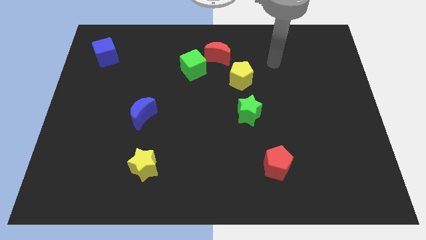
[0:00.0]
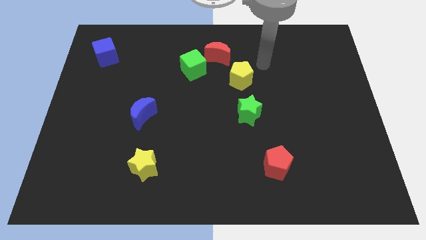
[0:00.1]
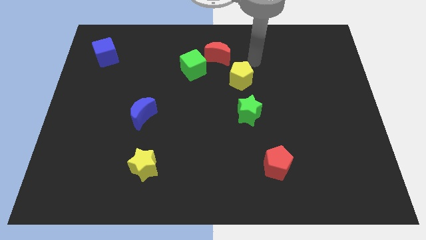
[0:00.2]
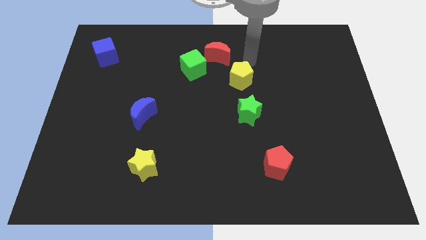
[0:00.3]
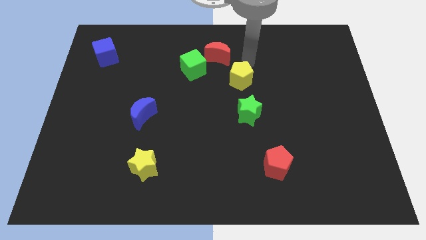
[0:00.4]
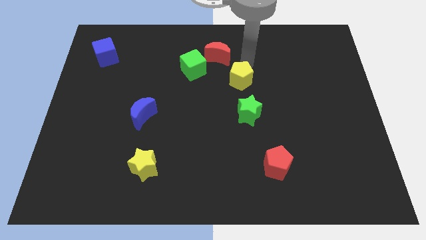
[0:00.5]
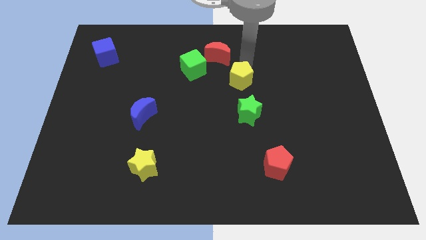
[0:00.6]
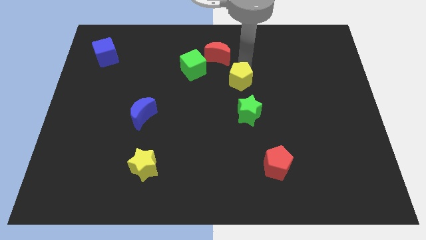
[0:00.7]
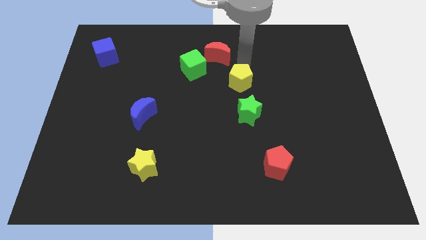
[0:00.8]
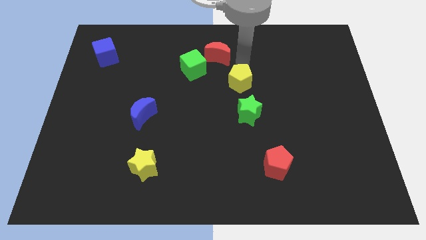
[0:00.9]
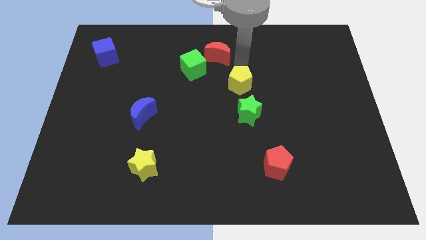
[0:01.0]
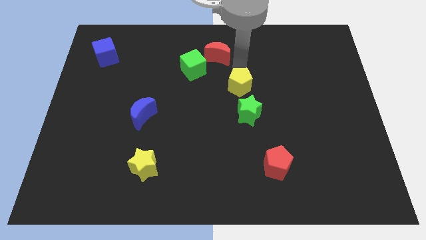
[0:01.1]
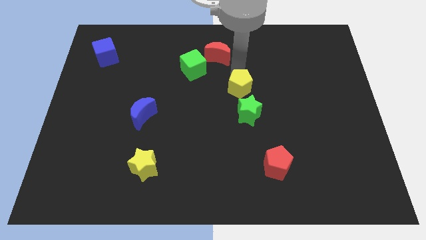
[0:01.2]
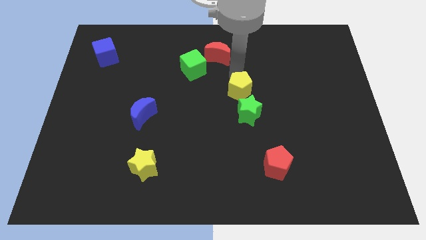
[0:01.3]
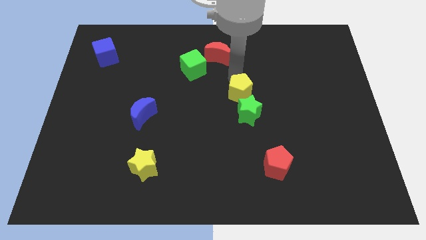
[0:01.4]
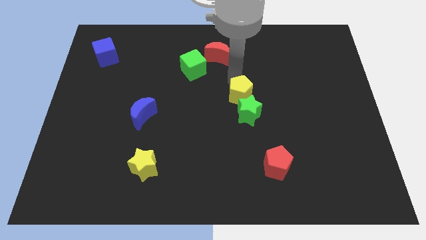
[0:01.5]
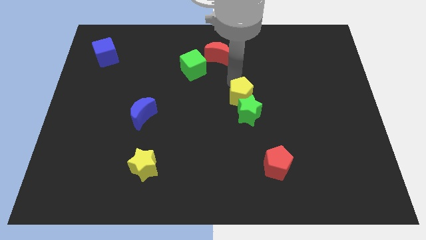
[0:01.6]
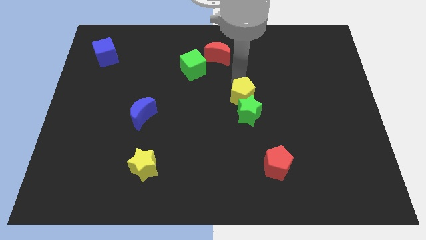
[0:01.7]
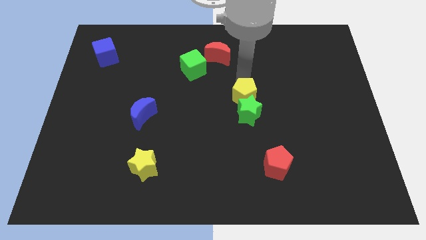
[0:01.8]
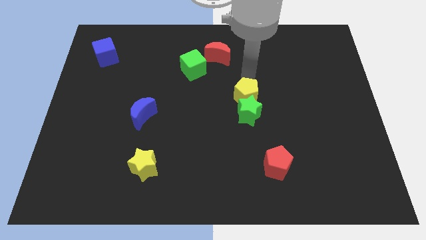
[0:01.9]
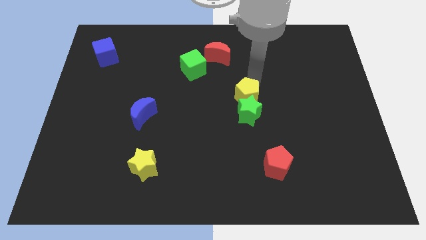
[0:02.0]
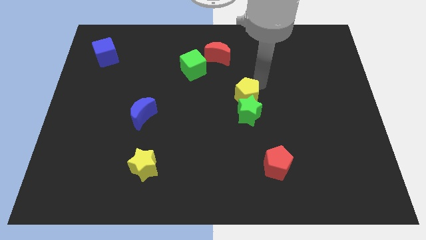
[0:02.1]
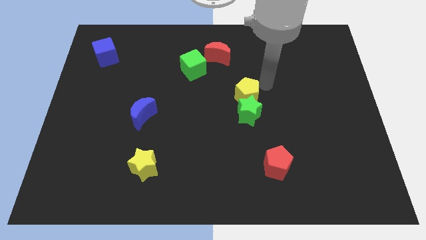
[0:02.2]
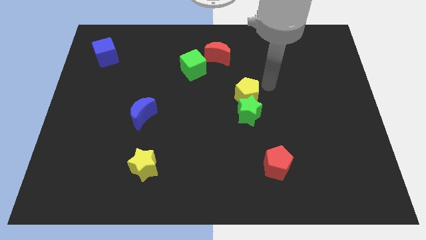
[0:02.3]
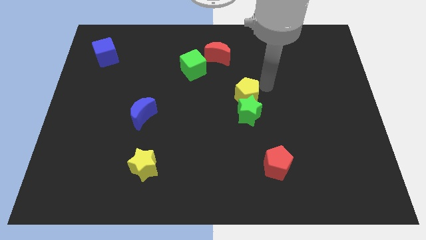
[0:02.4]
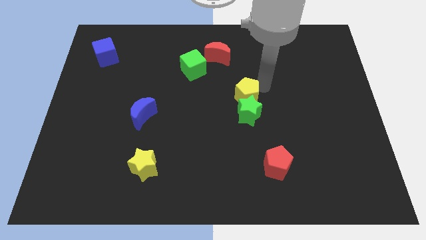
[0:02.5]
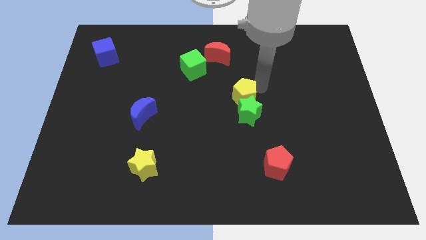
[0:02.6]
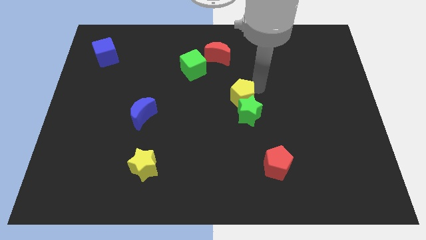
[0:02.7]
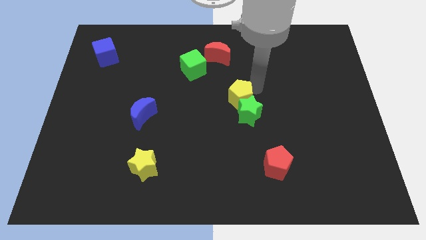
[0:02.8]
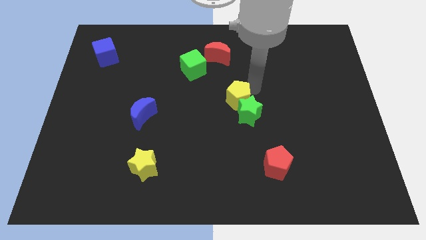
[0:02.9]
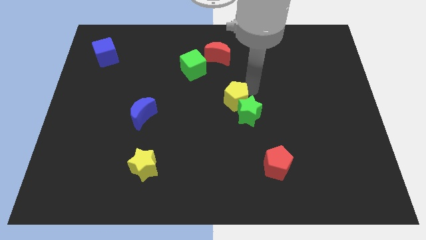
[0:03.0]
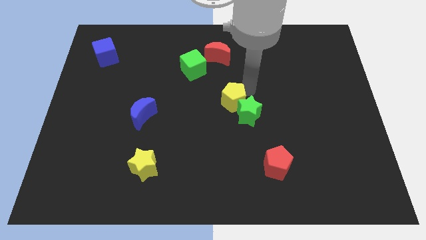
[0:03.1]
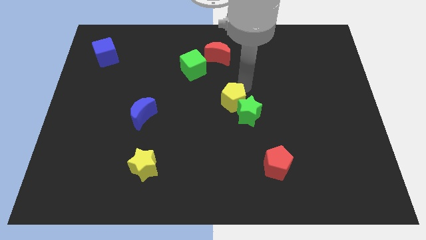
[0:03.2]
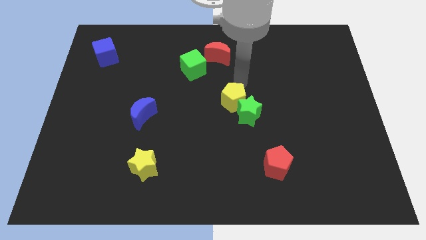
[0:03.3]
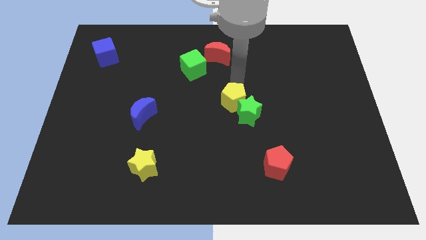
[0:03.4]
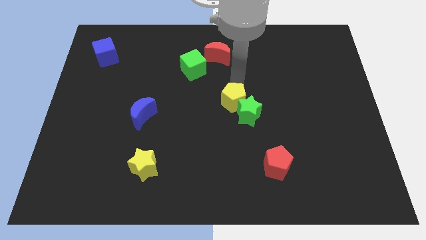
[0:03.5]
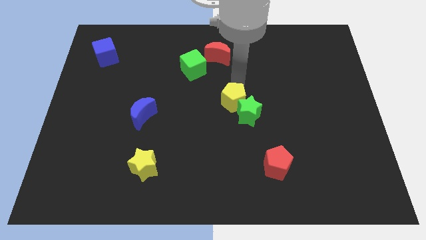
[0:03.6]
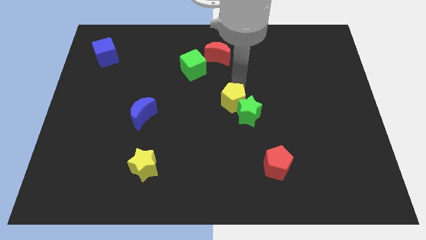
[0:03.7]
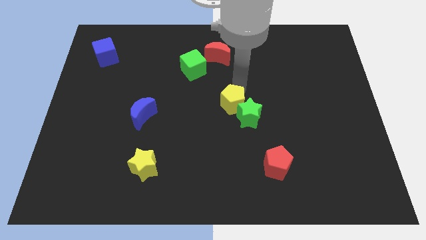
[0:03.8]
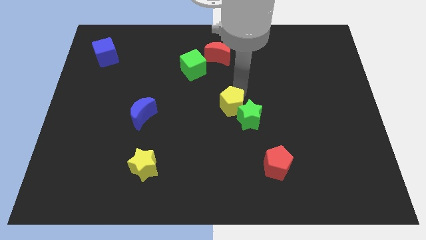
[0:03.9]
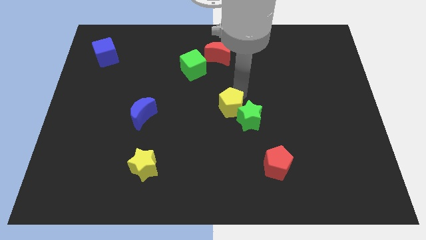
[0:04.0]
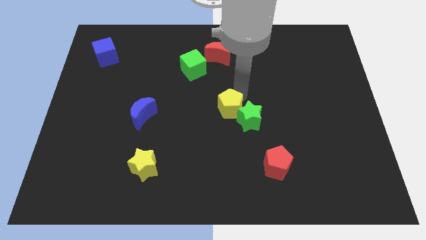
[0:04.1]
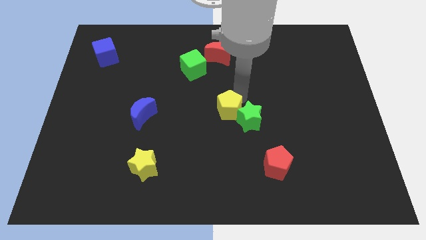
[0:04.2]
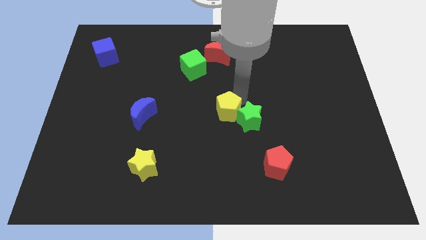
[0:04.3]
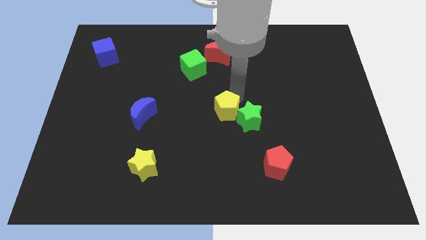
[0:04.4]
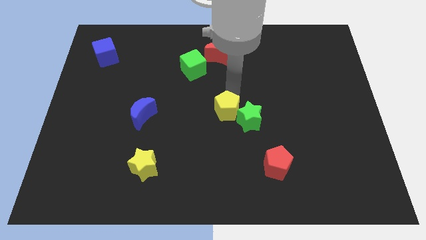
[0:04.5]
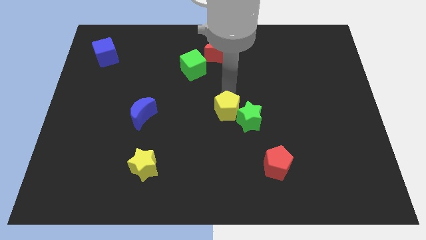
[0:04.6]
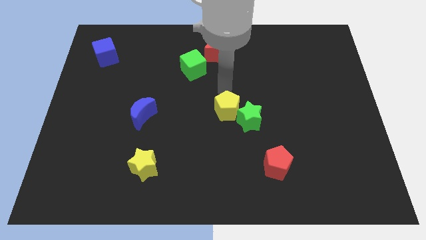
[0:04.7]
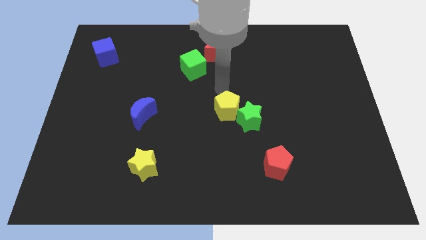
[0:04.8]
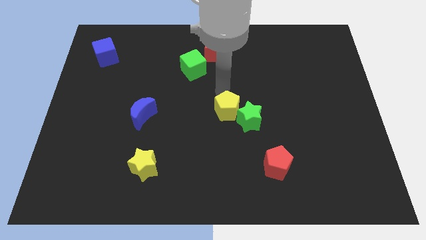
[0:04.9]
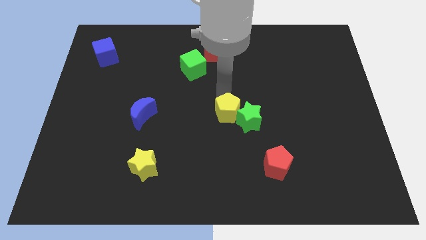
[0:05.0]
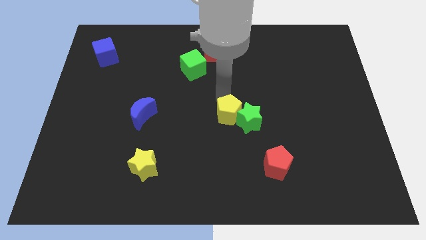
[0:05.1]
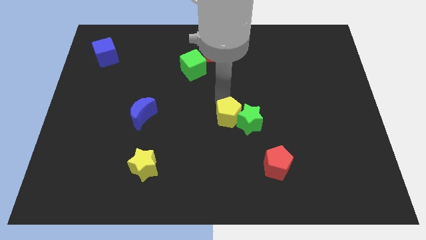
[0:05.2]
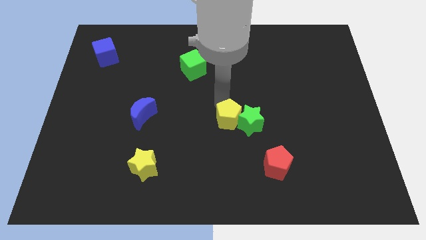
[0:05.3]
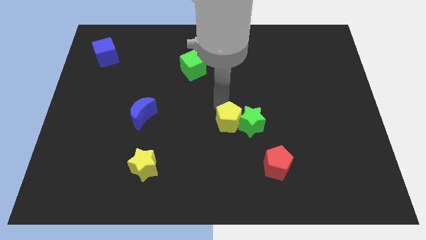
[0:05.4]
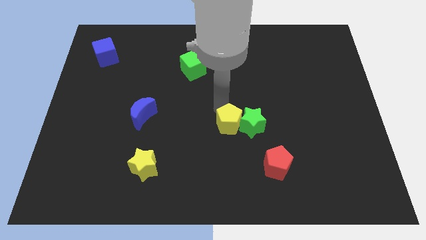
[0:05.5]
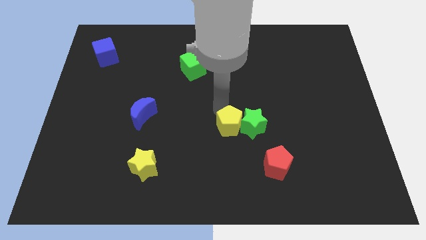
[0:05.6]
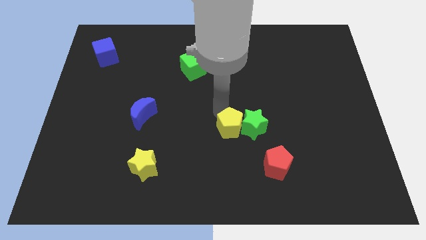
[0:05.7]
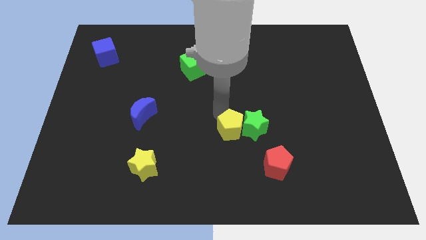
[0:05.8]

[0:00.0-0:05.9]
move the yellow pentagon to the top left of the red pentagon

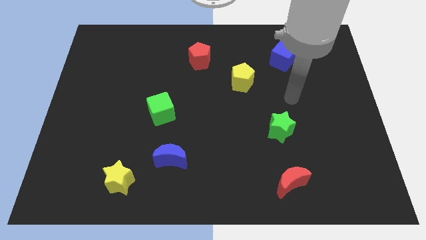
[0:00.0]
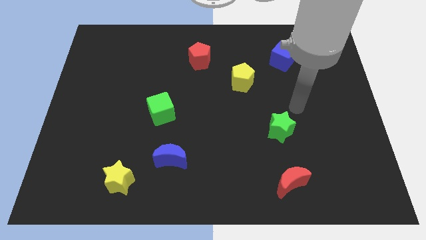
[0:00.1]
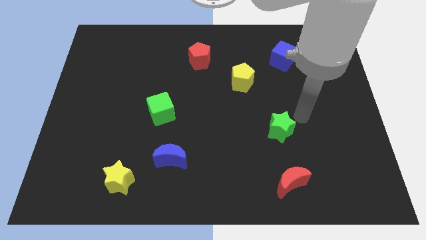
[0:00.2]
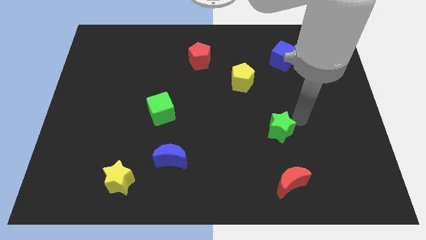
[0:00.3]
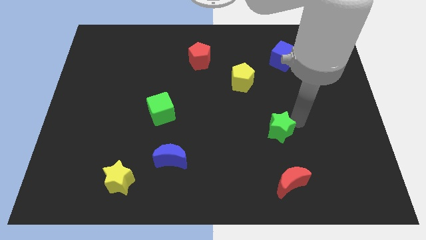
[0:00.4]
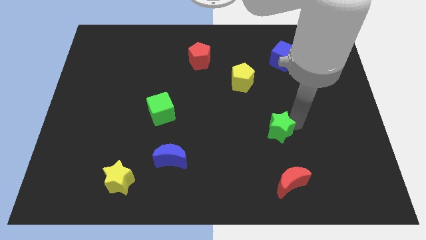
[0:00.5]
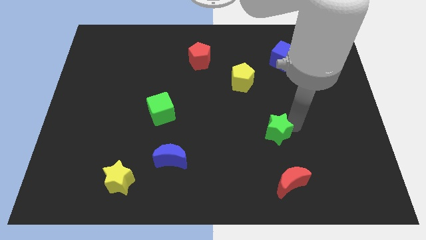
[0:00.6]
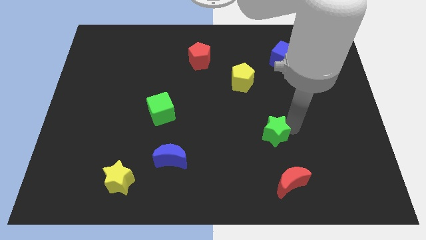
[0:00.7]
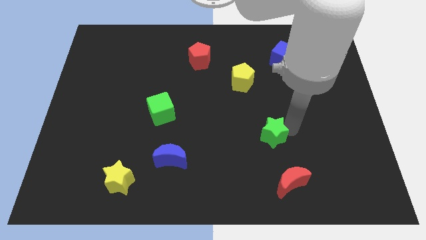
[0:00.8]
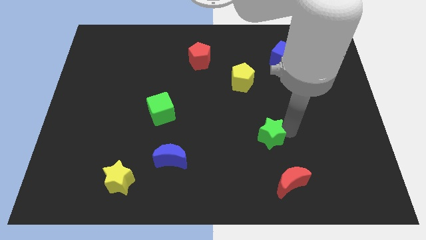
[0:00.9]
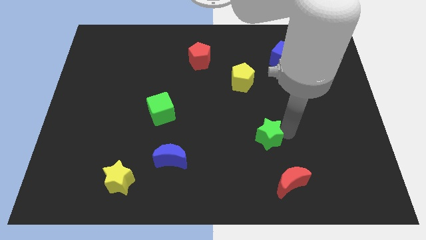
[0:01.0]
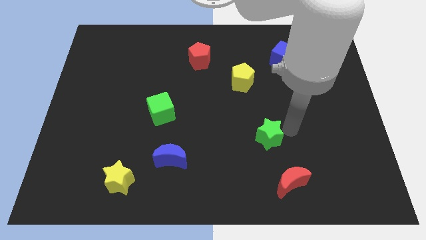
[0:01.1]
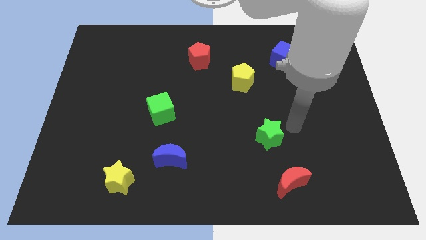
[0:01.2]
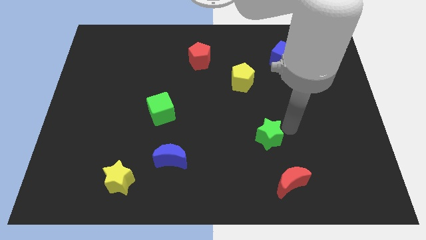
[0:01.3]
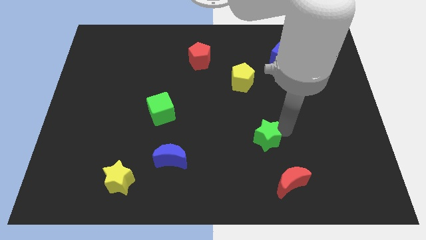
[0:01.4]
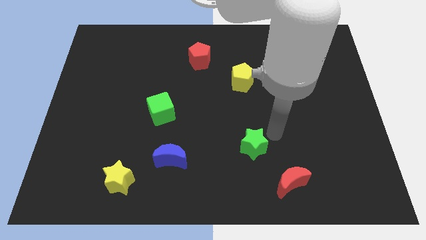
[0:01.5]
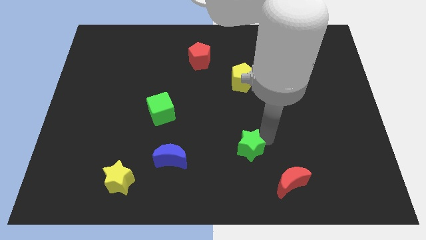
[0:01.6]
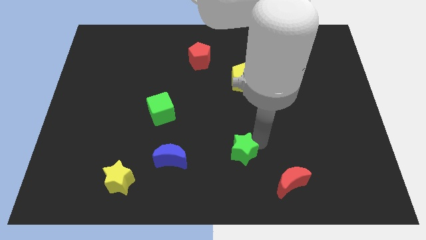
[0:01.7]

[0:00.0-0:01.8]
put the green star to the right side of the blue moon
